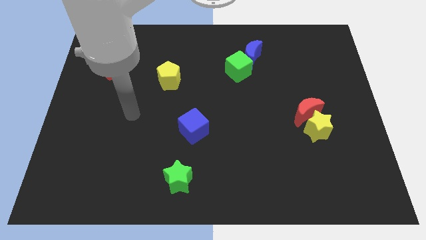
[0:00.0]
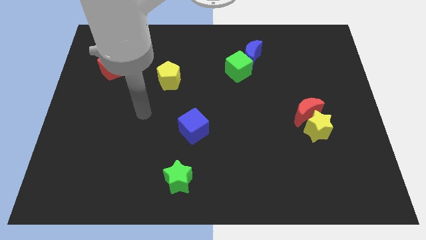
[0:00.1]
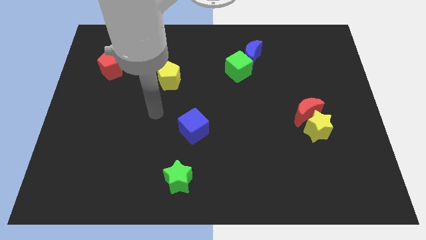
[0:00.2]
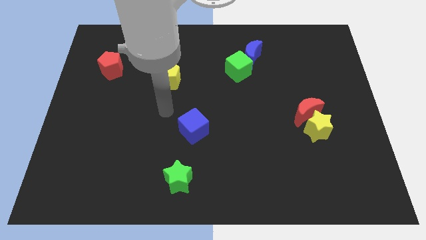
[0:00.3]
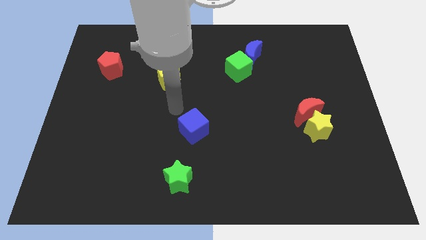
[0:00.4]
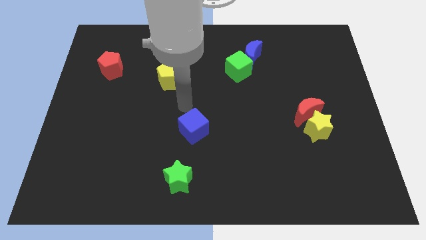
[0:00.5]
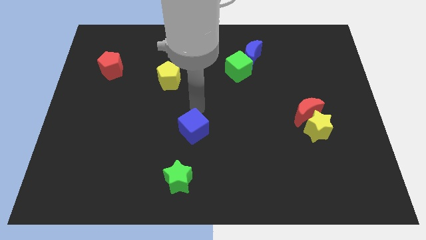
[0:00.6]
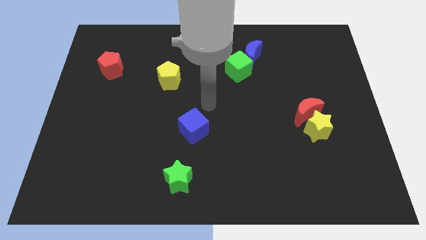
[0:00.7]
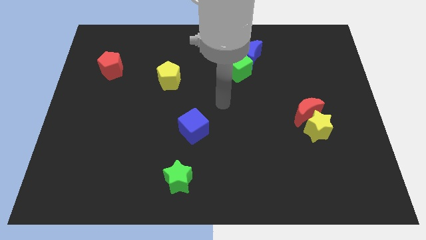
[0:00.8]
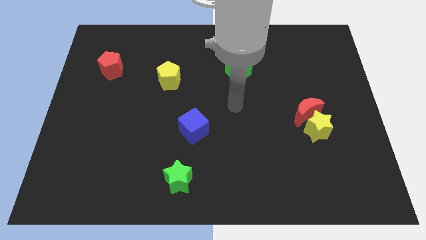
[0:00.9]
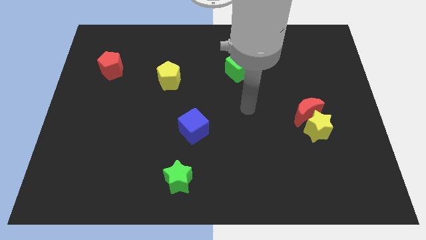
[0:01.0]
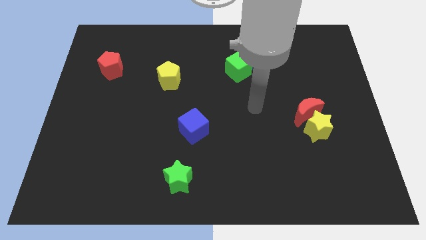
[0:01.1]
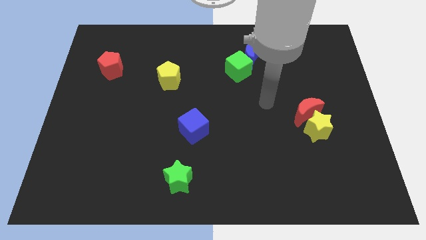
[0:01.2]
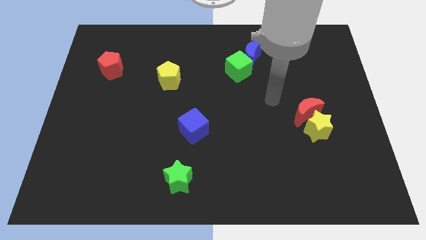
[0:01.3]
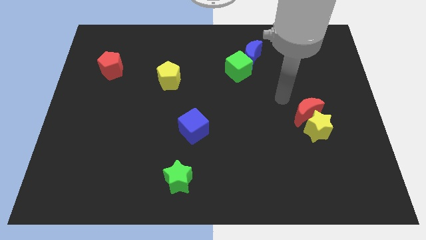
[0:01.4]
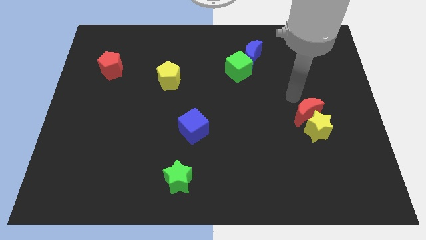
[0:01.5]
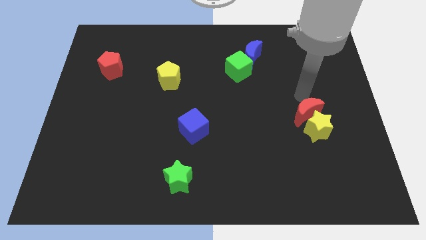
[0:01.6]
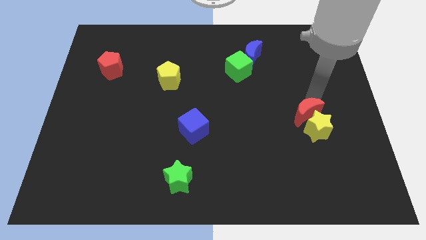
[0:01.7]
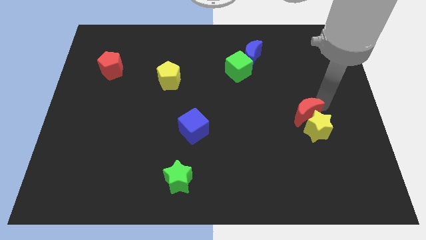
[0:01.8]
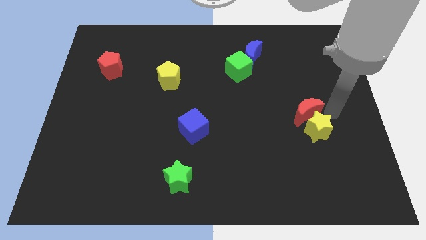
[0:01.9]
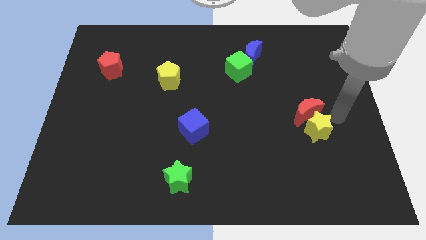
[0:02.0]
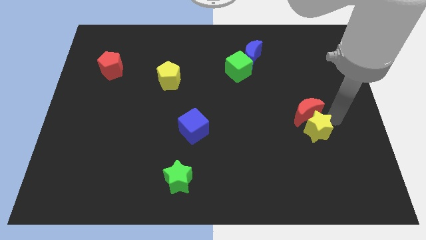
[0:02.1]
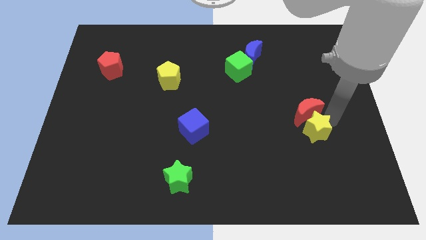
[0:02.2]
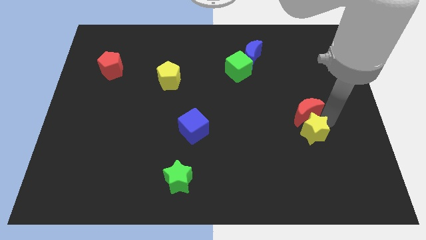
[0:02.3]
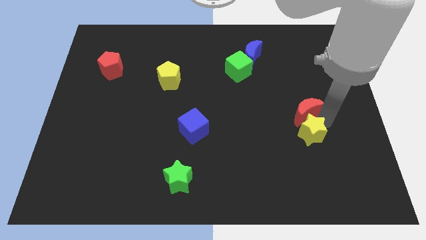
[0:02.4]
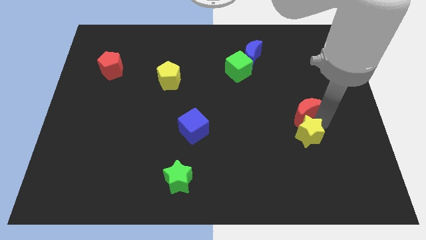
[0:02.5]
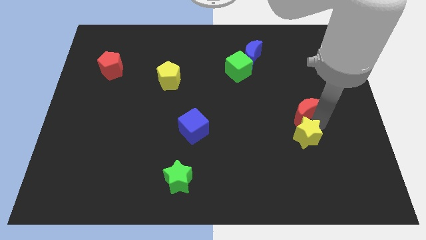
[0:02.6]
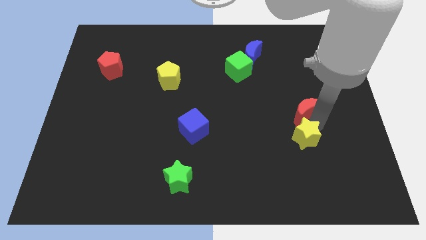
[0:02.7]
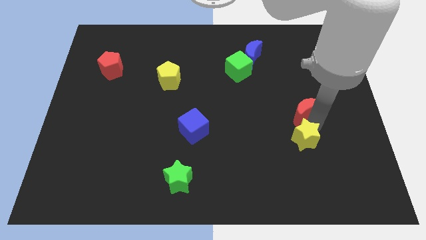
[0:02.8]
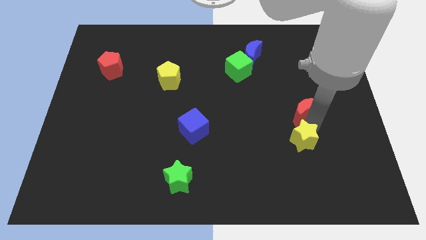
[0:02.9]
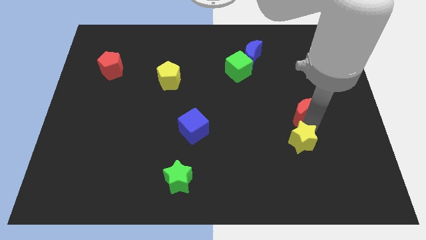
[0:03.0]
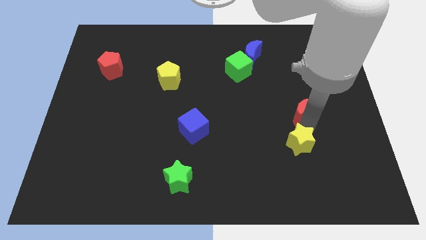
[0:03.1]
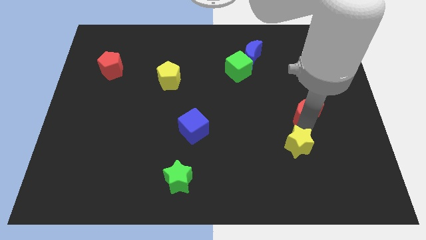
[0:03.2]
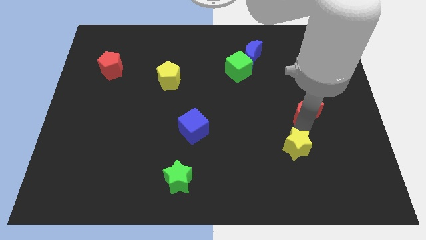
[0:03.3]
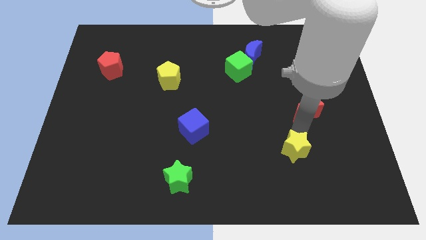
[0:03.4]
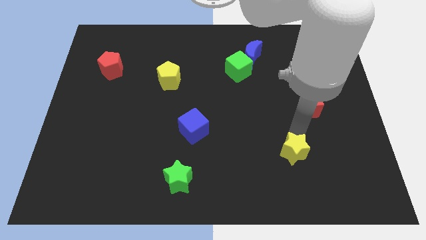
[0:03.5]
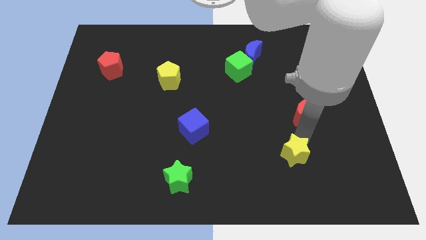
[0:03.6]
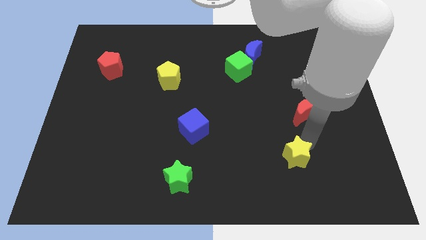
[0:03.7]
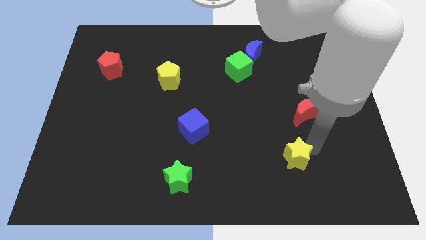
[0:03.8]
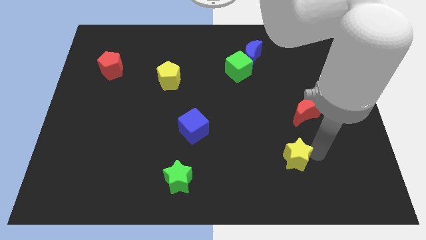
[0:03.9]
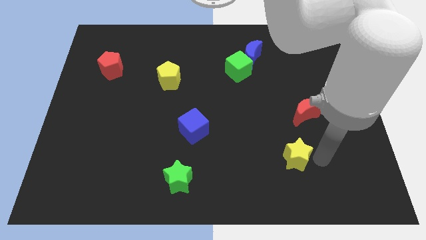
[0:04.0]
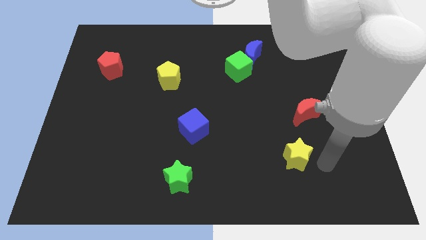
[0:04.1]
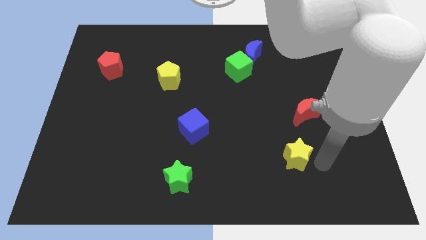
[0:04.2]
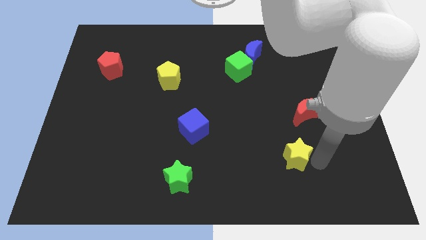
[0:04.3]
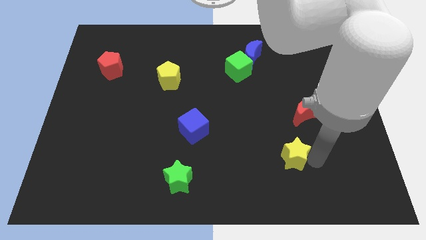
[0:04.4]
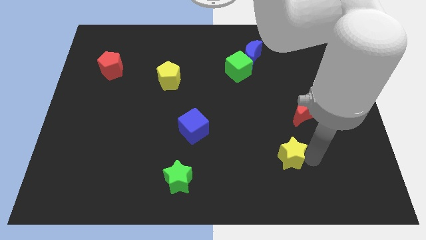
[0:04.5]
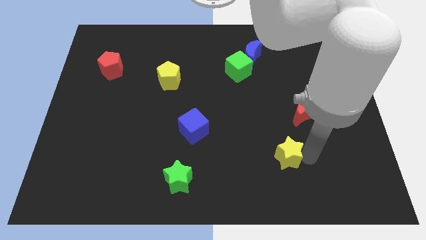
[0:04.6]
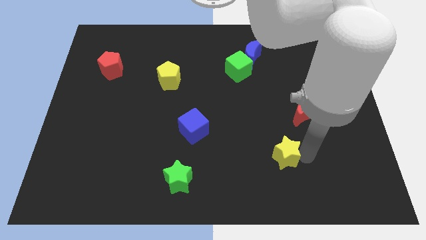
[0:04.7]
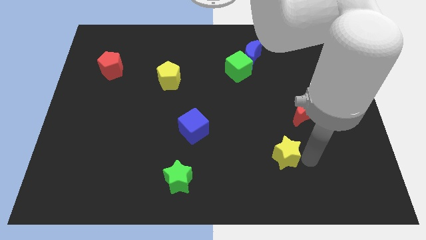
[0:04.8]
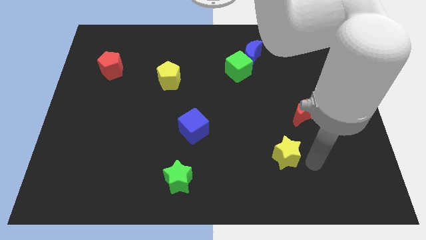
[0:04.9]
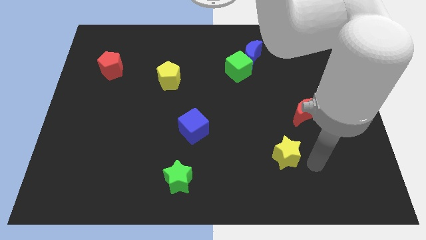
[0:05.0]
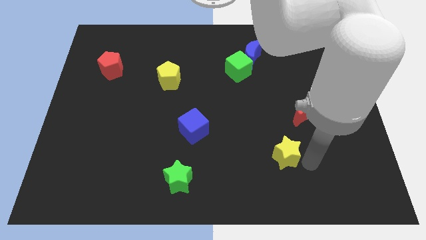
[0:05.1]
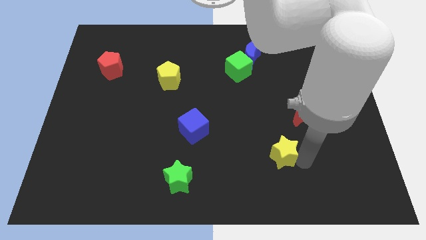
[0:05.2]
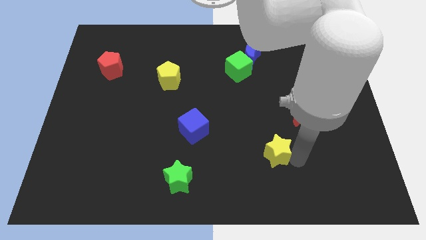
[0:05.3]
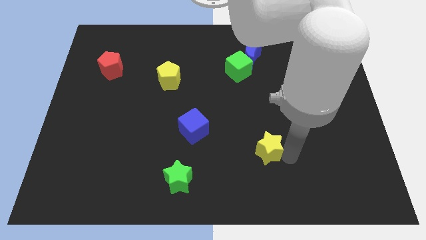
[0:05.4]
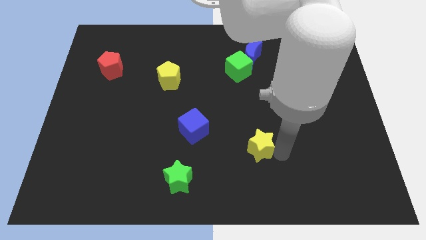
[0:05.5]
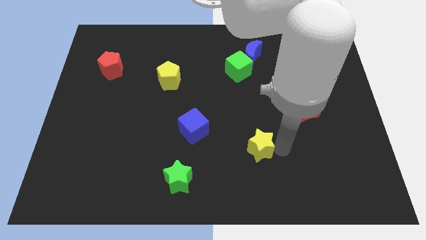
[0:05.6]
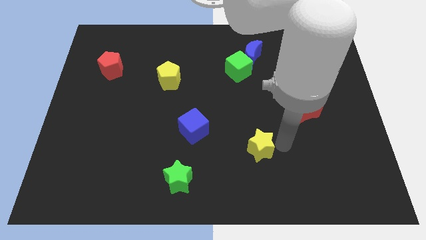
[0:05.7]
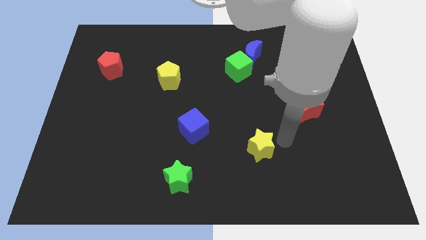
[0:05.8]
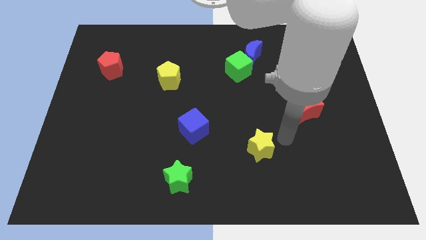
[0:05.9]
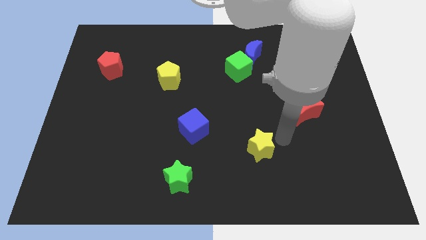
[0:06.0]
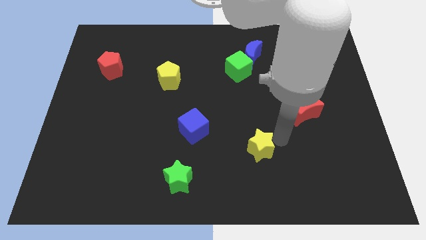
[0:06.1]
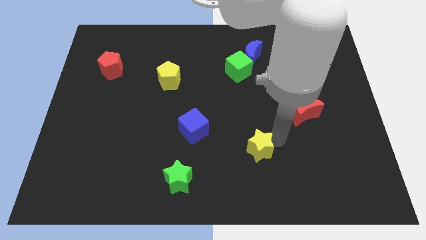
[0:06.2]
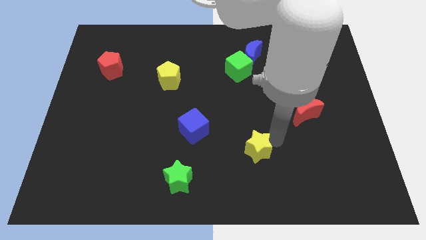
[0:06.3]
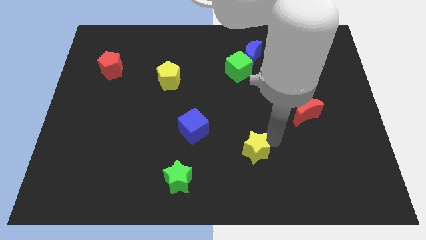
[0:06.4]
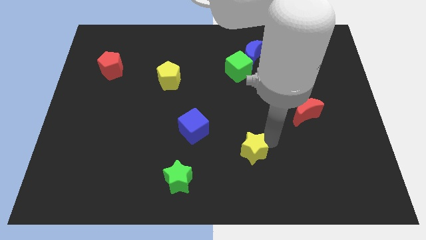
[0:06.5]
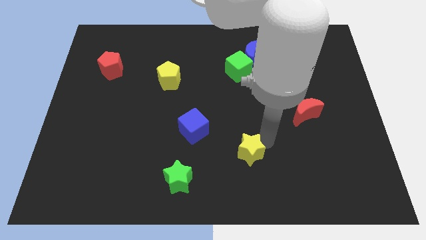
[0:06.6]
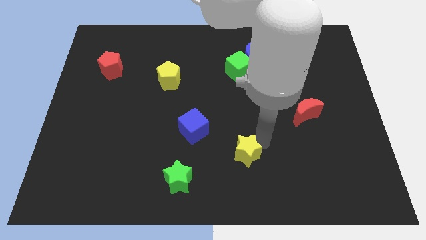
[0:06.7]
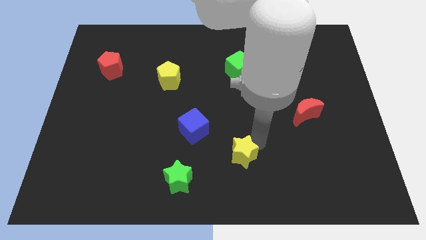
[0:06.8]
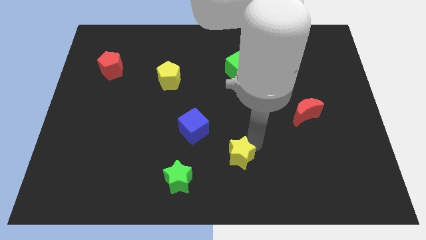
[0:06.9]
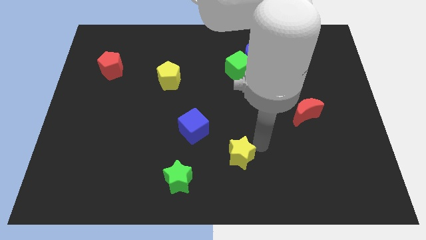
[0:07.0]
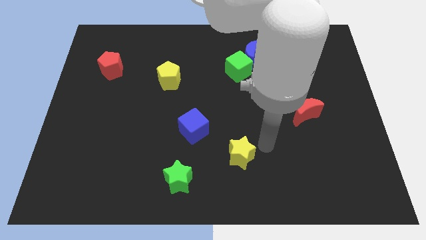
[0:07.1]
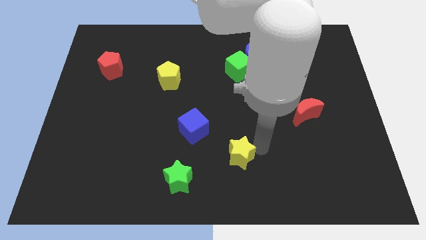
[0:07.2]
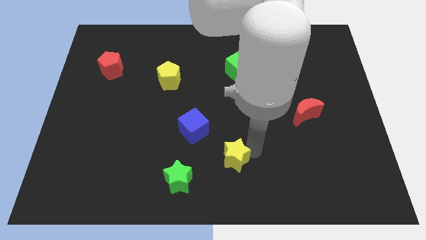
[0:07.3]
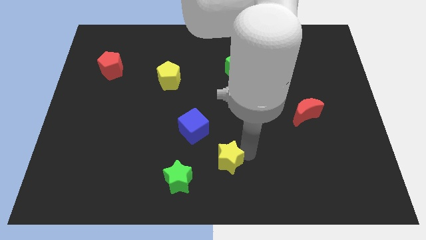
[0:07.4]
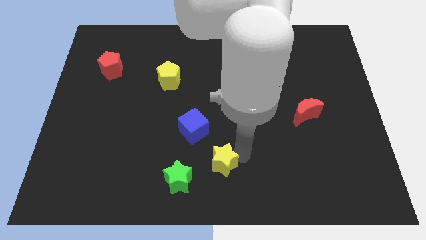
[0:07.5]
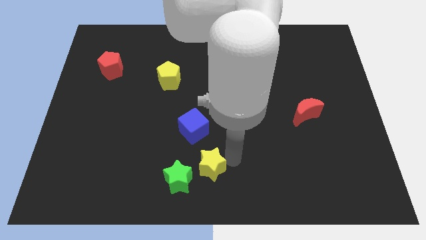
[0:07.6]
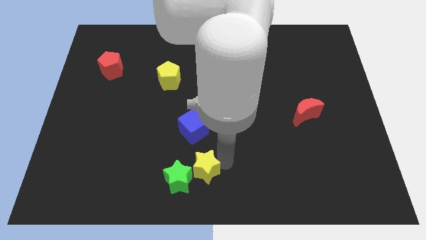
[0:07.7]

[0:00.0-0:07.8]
move the yellow star next to the green star
